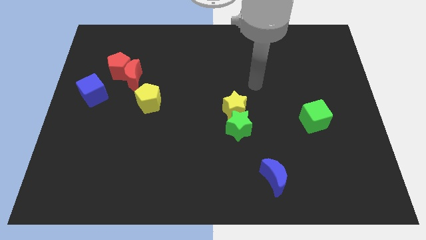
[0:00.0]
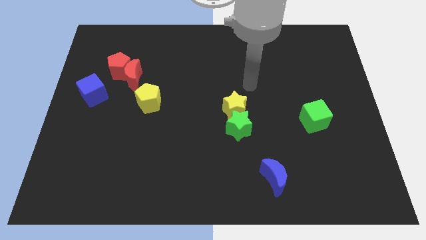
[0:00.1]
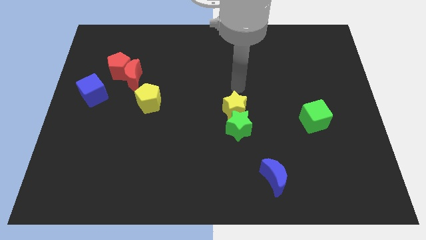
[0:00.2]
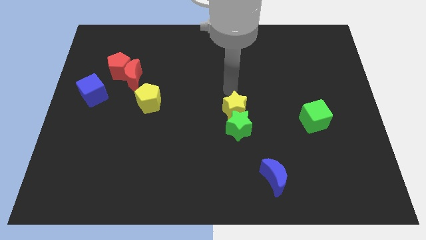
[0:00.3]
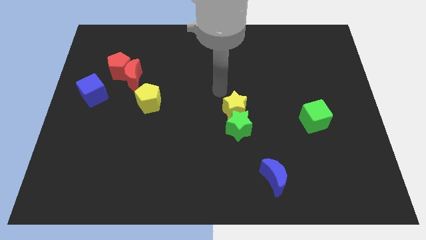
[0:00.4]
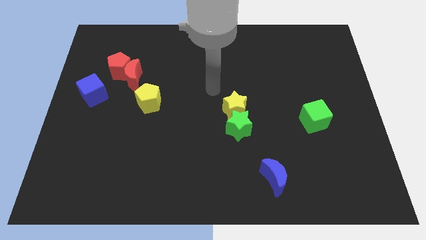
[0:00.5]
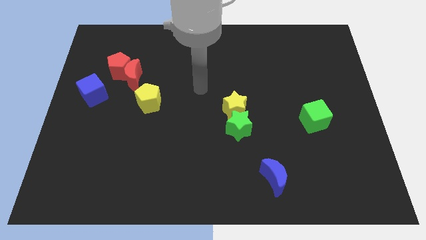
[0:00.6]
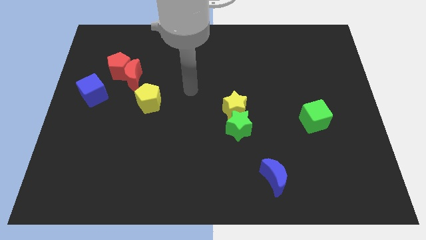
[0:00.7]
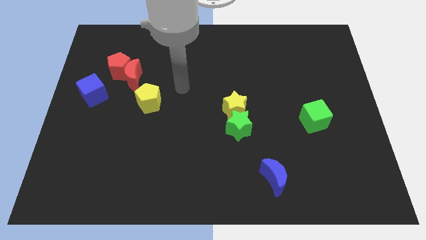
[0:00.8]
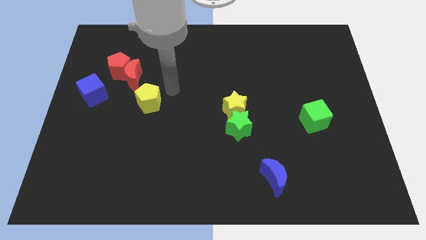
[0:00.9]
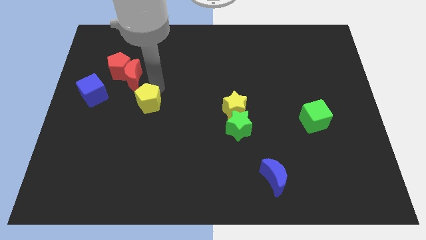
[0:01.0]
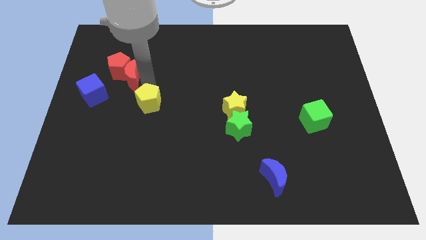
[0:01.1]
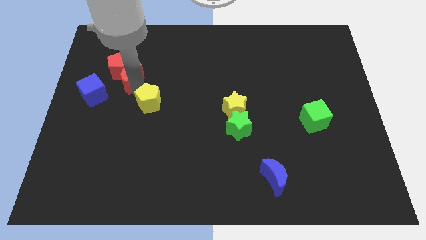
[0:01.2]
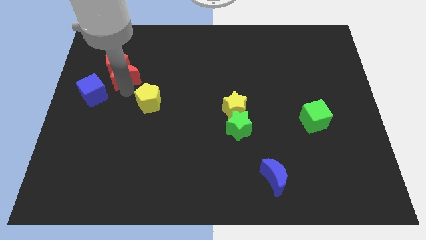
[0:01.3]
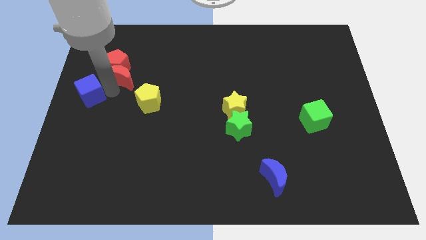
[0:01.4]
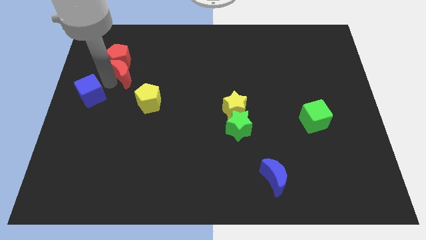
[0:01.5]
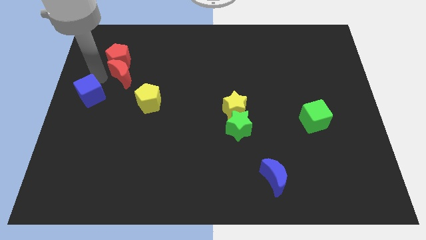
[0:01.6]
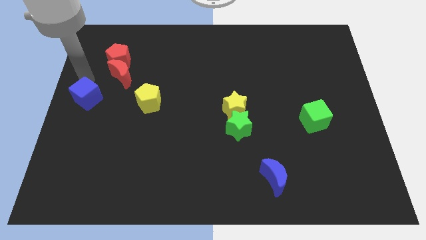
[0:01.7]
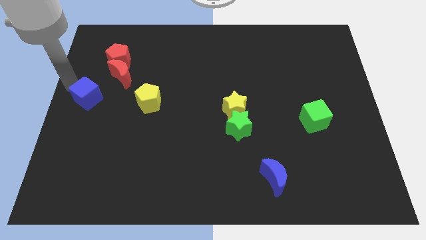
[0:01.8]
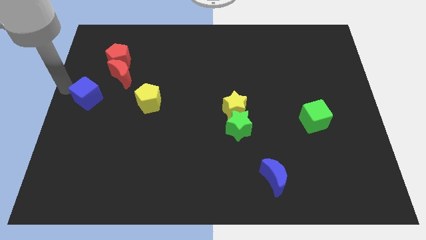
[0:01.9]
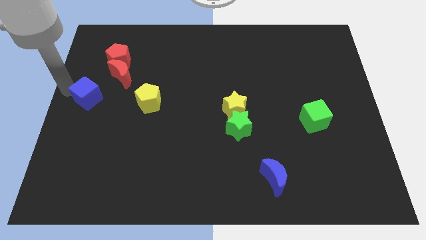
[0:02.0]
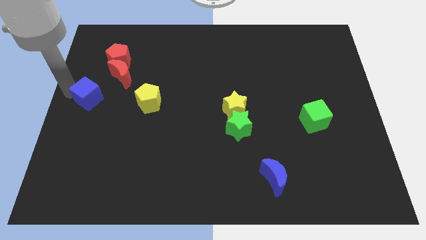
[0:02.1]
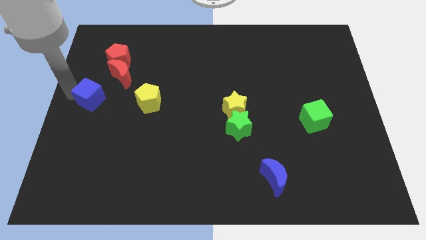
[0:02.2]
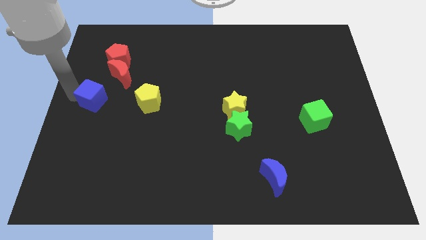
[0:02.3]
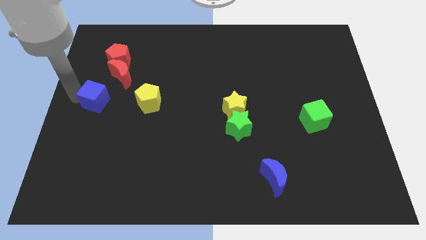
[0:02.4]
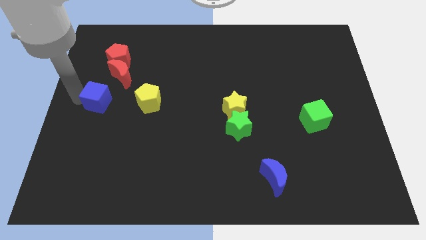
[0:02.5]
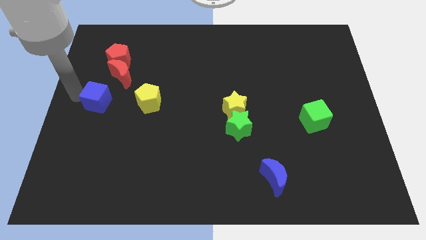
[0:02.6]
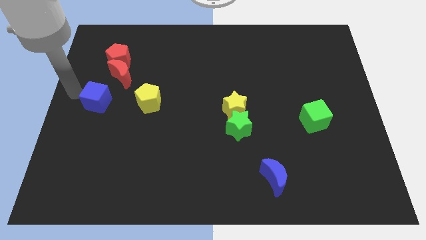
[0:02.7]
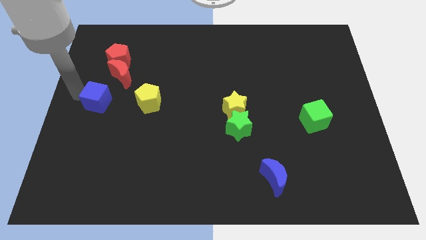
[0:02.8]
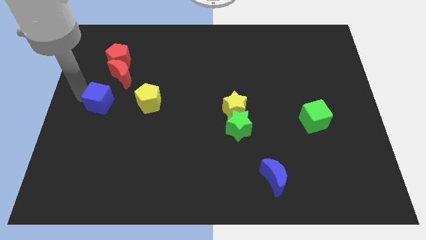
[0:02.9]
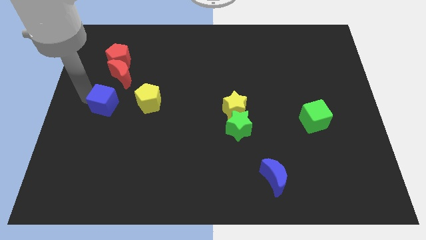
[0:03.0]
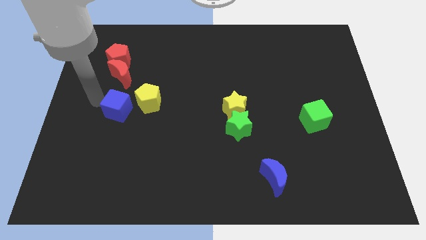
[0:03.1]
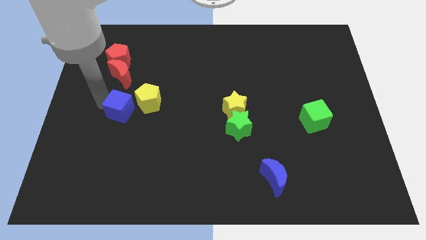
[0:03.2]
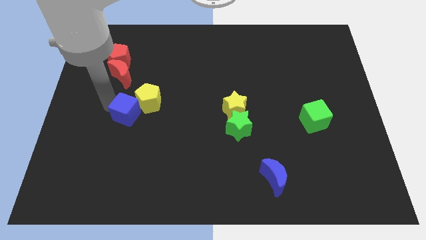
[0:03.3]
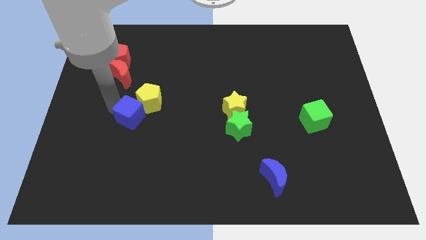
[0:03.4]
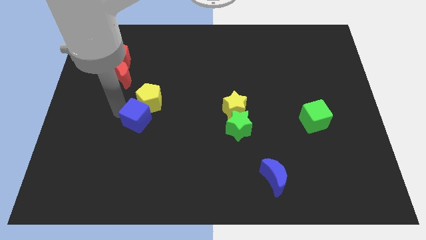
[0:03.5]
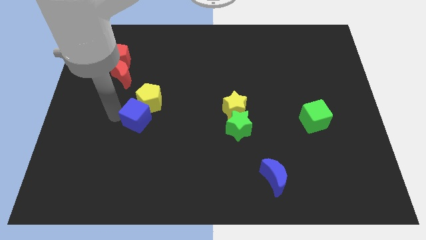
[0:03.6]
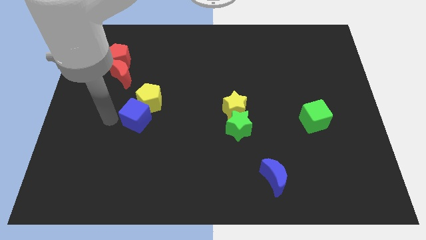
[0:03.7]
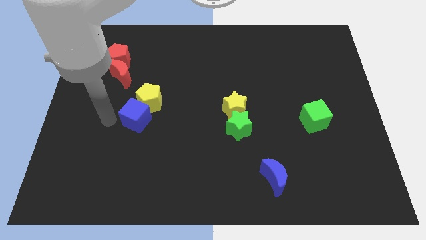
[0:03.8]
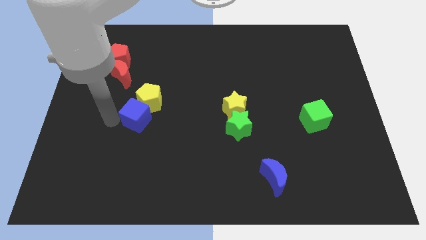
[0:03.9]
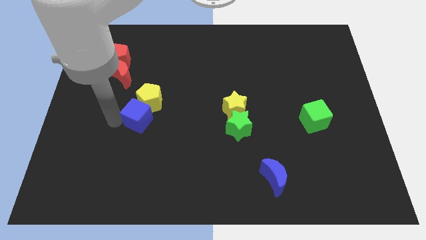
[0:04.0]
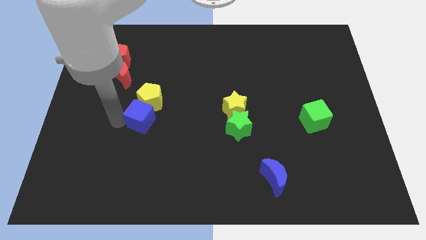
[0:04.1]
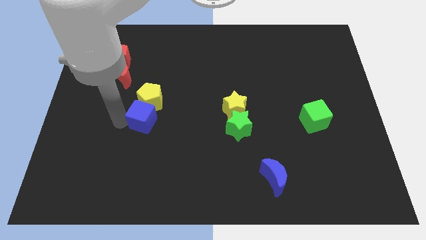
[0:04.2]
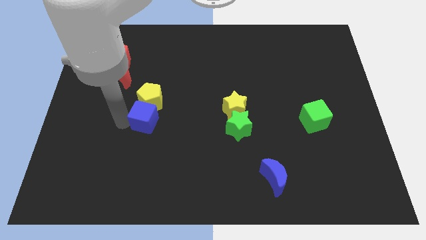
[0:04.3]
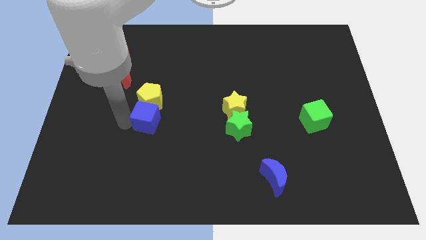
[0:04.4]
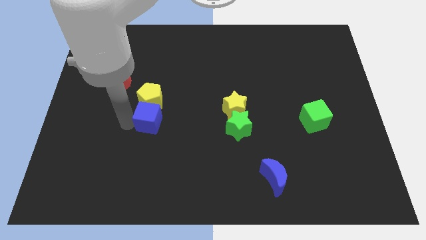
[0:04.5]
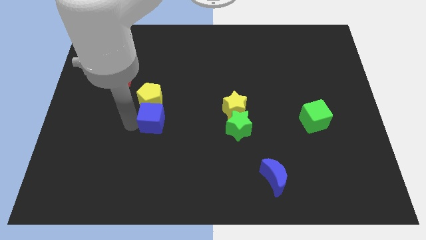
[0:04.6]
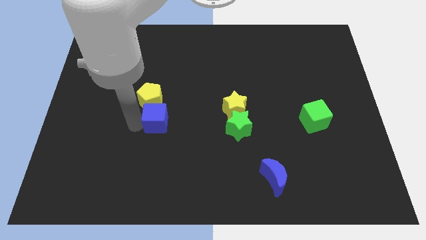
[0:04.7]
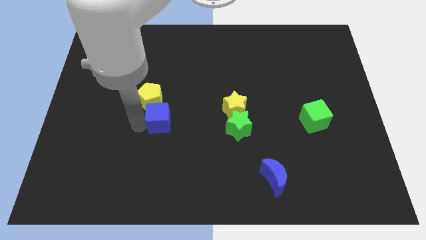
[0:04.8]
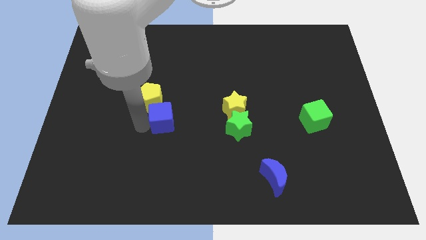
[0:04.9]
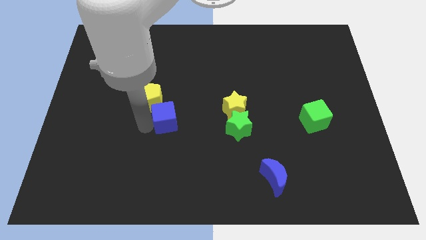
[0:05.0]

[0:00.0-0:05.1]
move the blue cube to the center

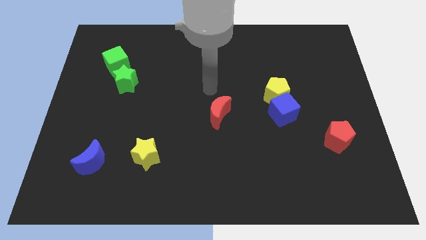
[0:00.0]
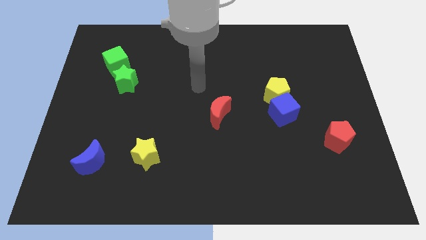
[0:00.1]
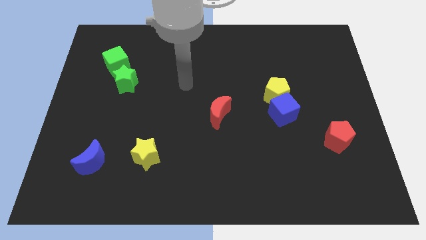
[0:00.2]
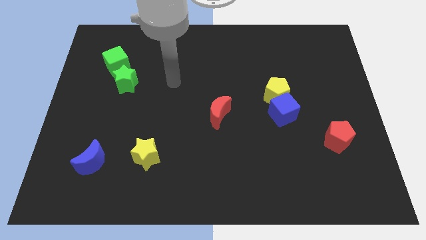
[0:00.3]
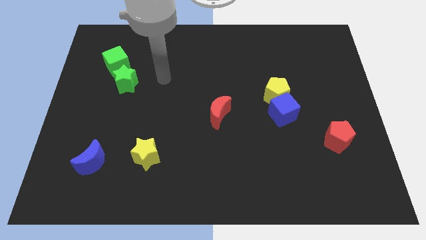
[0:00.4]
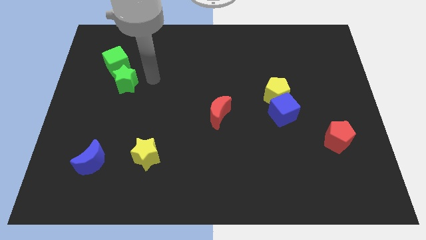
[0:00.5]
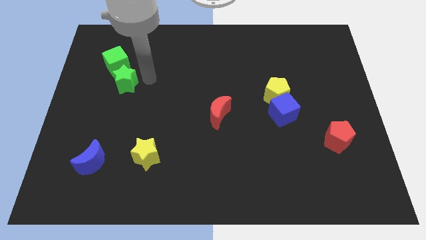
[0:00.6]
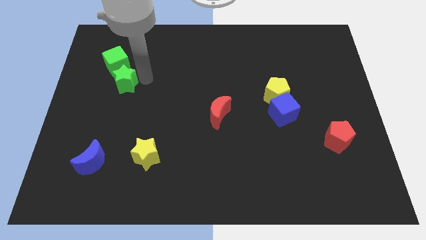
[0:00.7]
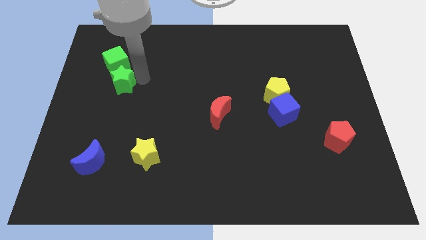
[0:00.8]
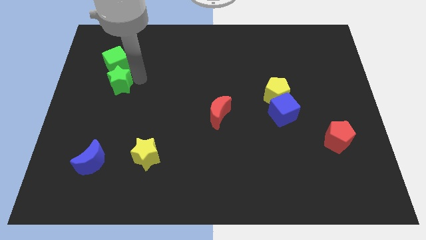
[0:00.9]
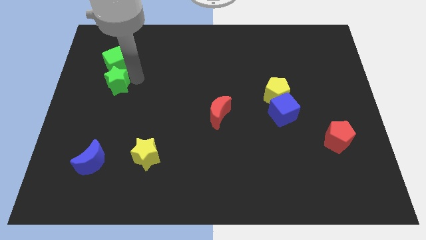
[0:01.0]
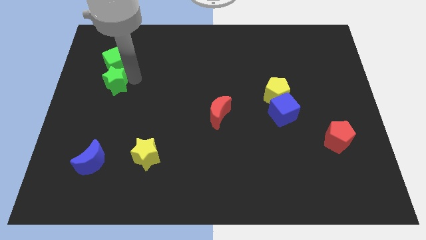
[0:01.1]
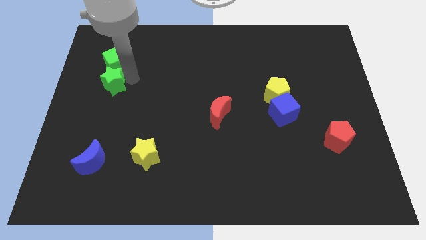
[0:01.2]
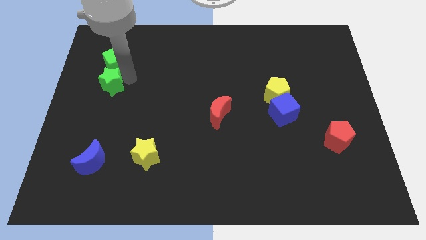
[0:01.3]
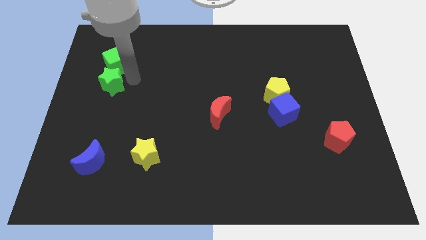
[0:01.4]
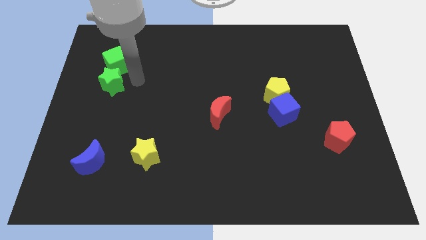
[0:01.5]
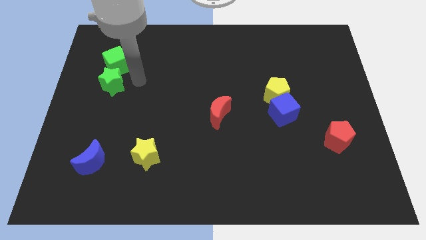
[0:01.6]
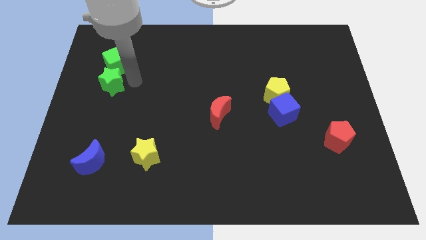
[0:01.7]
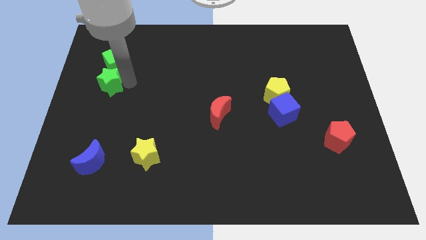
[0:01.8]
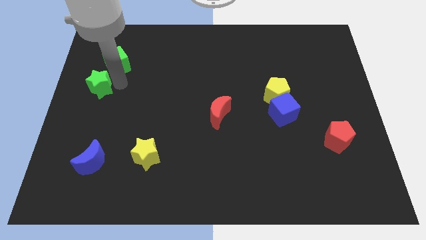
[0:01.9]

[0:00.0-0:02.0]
push the green star to the left side of the board
